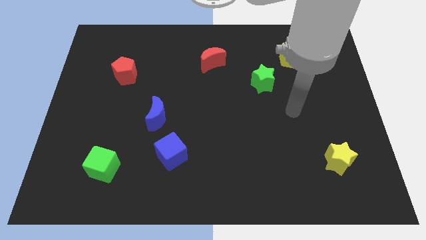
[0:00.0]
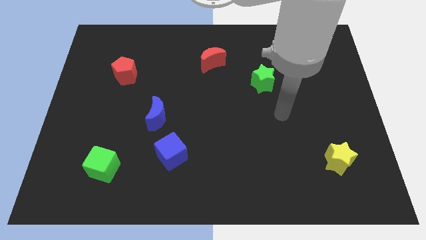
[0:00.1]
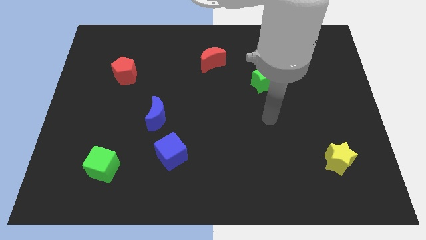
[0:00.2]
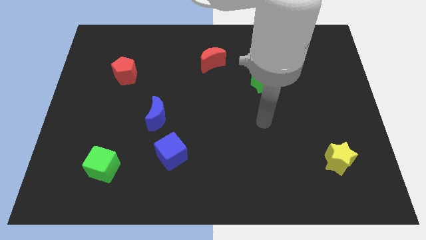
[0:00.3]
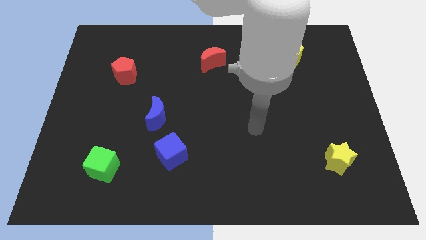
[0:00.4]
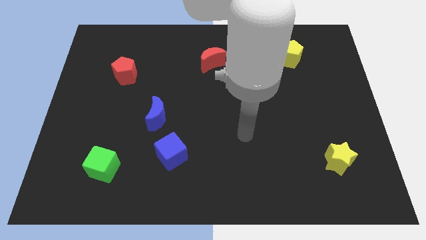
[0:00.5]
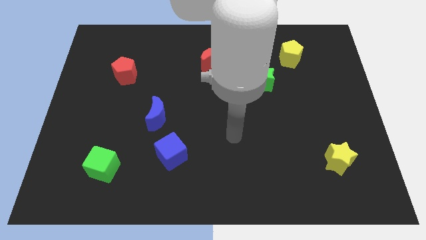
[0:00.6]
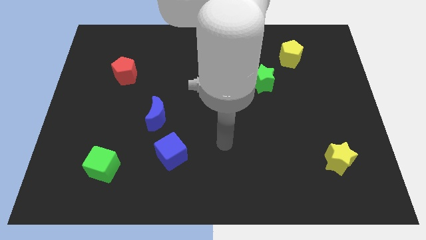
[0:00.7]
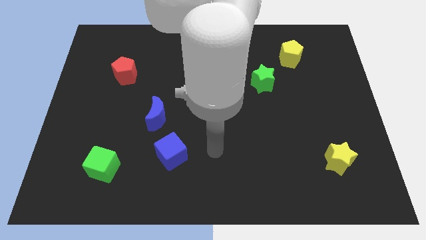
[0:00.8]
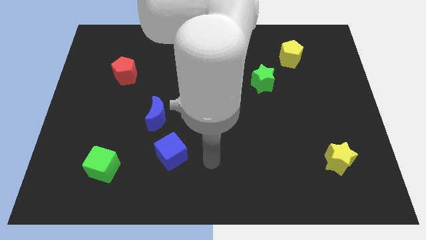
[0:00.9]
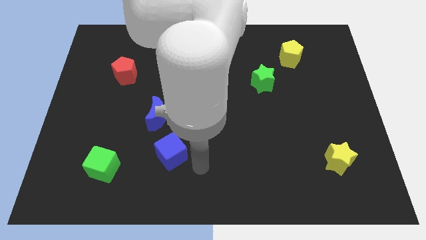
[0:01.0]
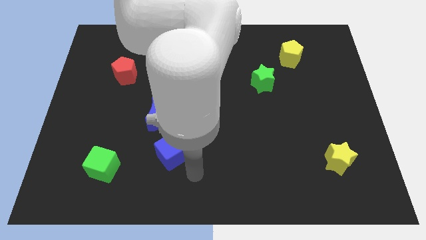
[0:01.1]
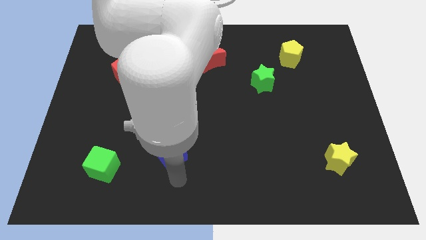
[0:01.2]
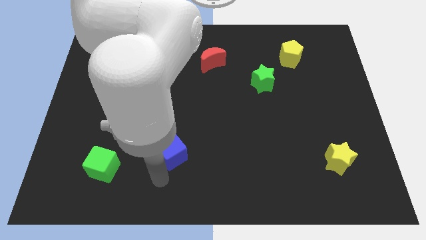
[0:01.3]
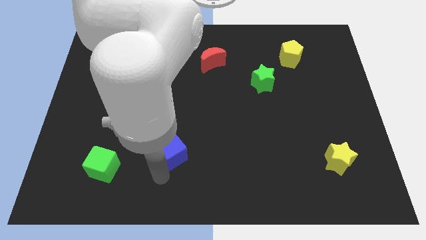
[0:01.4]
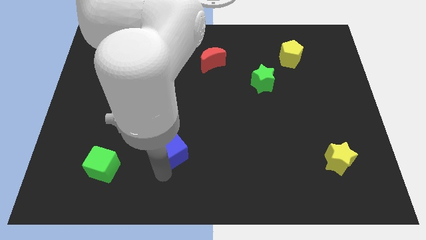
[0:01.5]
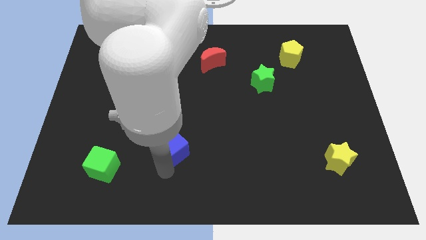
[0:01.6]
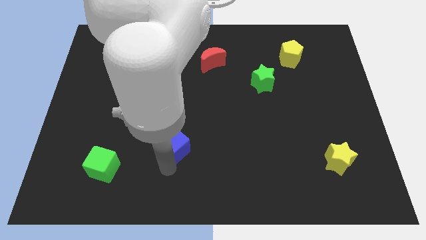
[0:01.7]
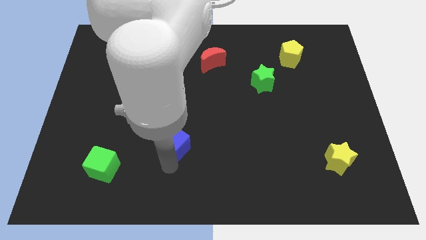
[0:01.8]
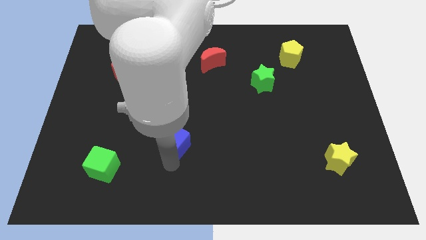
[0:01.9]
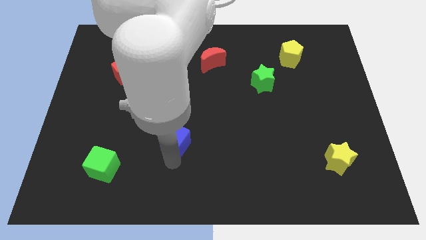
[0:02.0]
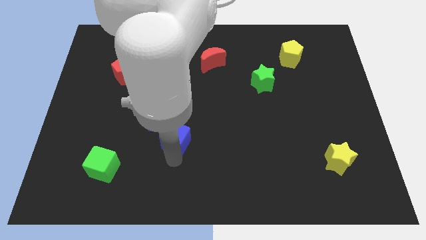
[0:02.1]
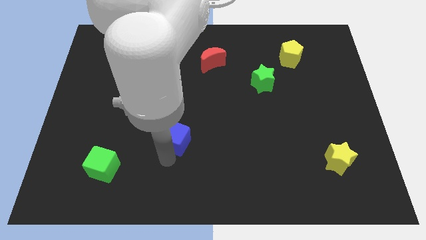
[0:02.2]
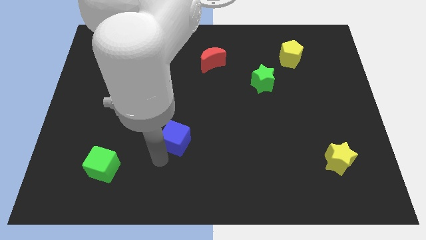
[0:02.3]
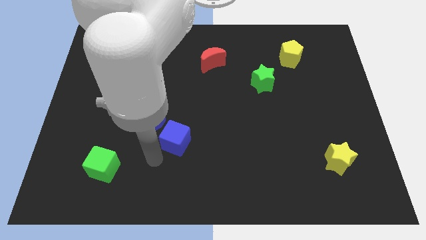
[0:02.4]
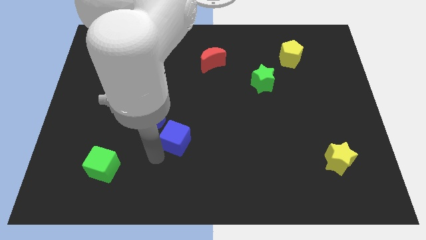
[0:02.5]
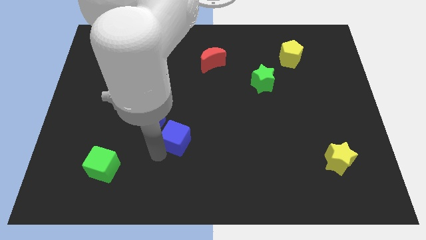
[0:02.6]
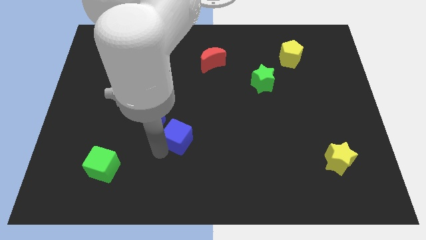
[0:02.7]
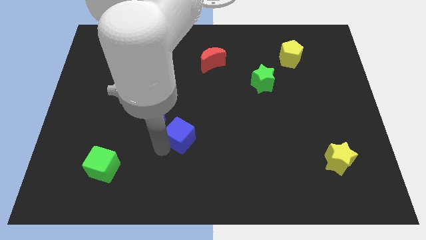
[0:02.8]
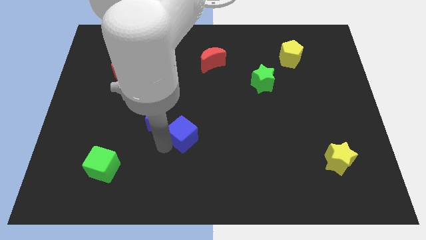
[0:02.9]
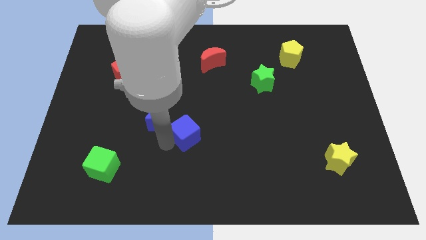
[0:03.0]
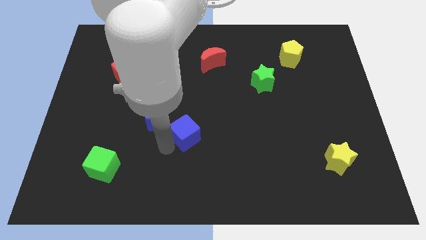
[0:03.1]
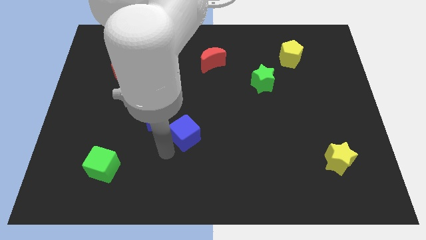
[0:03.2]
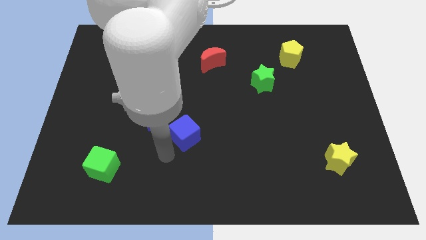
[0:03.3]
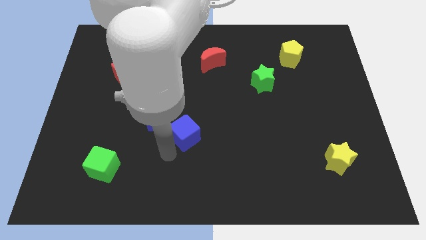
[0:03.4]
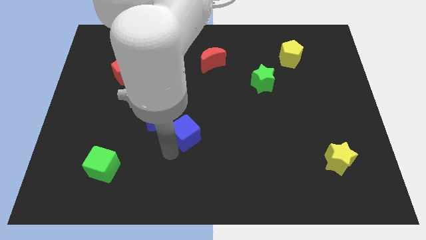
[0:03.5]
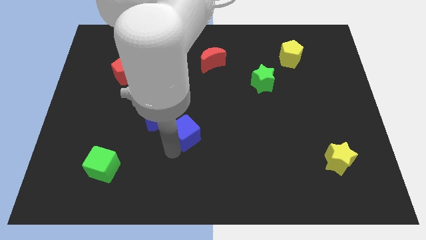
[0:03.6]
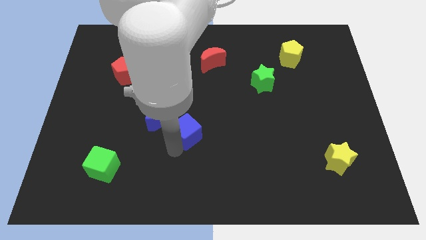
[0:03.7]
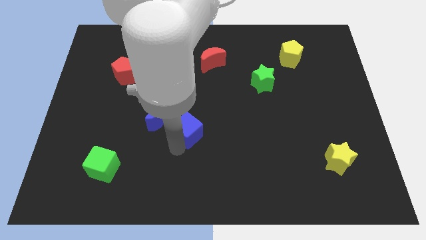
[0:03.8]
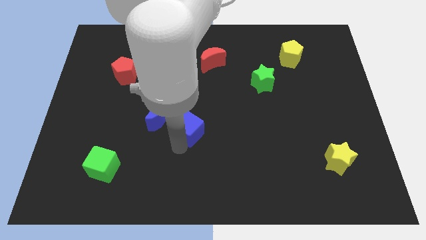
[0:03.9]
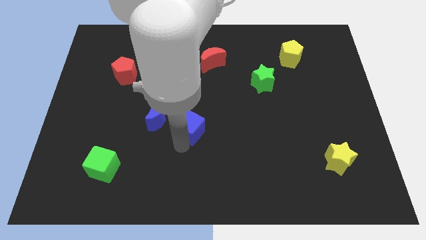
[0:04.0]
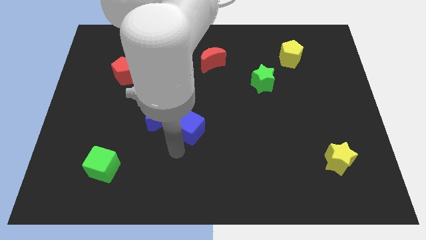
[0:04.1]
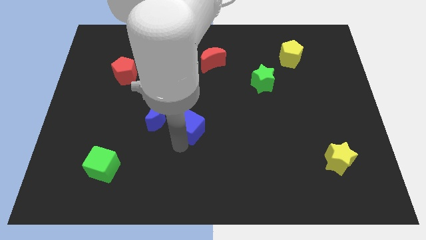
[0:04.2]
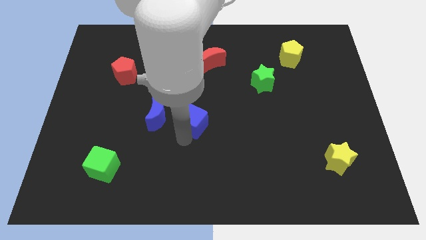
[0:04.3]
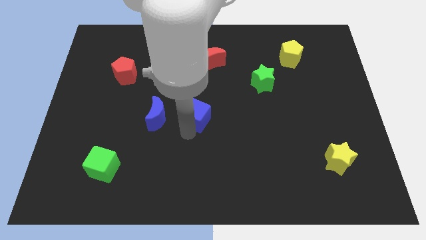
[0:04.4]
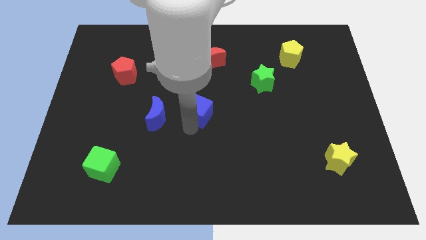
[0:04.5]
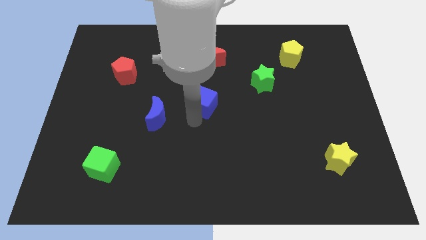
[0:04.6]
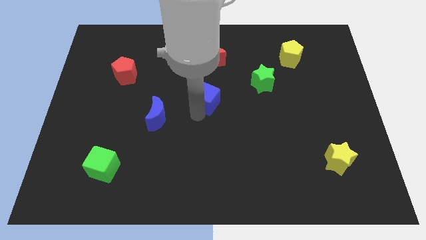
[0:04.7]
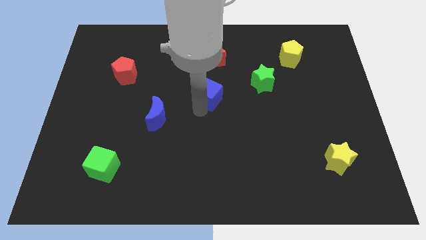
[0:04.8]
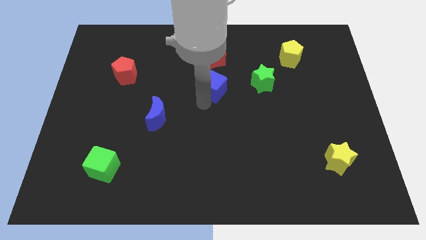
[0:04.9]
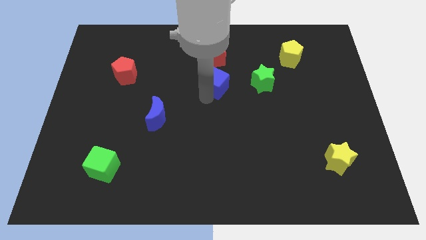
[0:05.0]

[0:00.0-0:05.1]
push the blue cube to the bottom right of the red moon

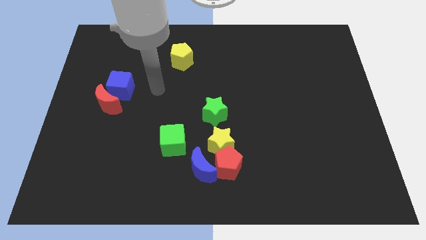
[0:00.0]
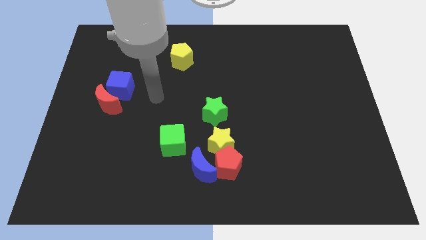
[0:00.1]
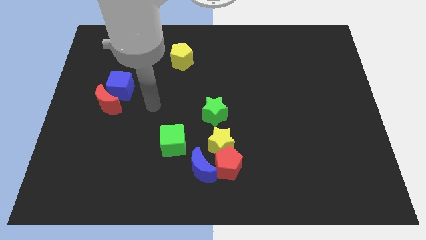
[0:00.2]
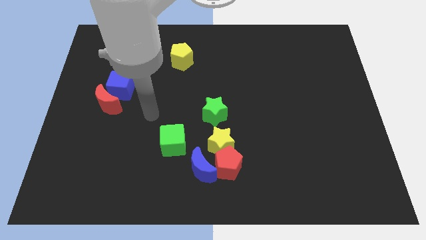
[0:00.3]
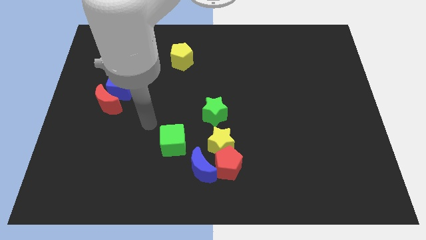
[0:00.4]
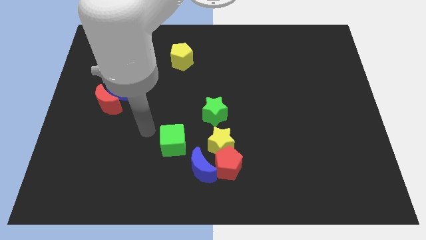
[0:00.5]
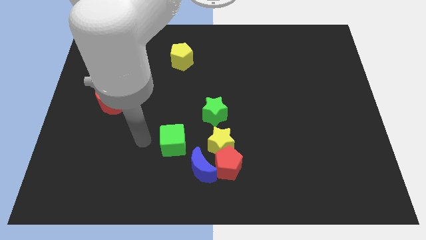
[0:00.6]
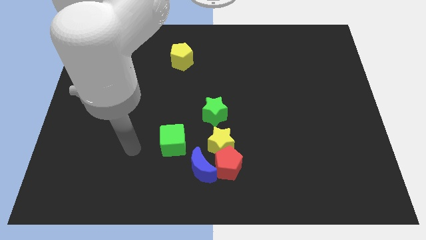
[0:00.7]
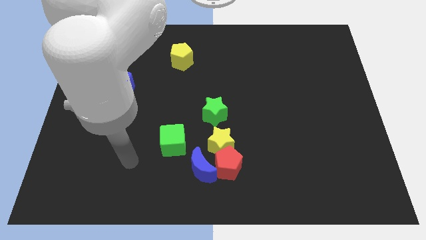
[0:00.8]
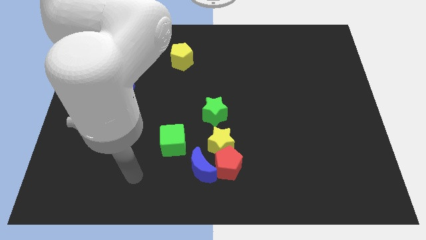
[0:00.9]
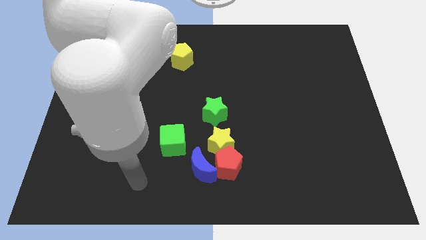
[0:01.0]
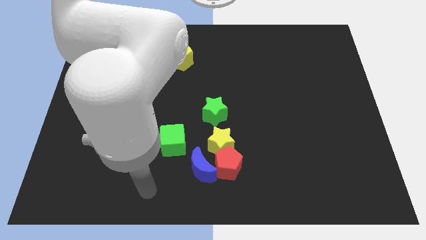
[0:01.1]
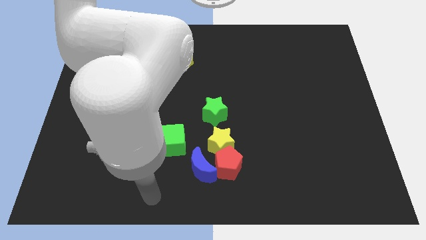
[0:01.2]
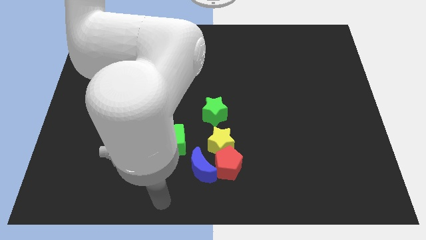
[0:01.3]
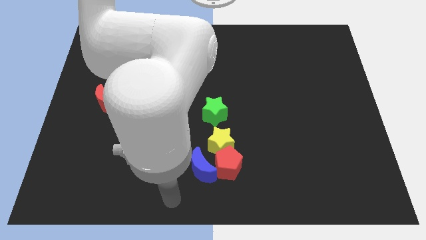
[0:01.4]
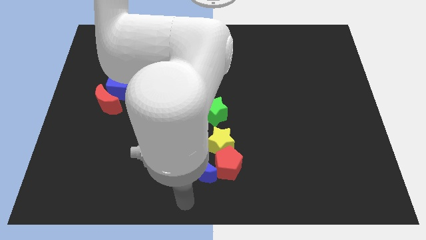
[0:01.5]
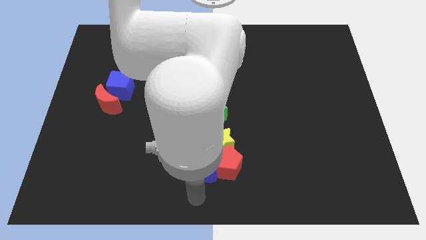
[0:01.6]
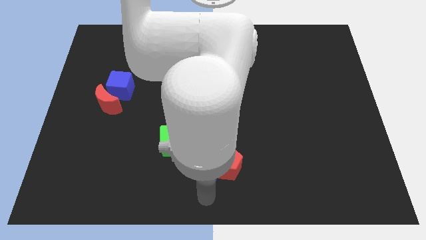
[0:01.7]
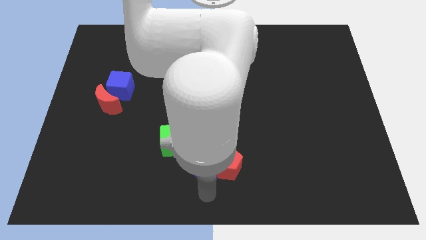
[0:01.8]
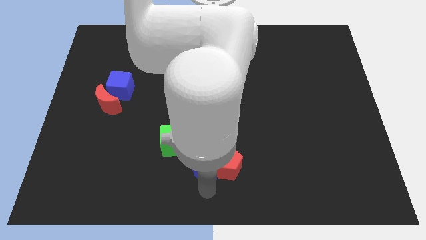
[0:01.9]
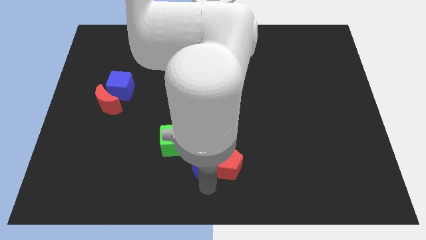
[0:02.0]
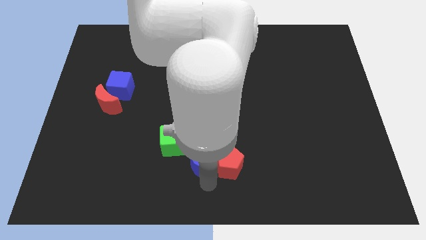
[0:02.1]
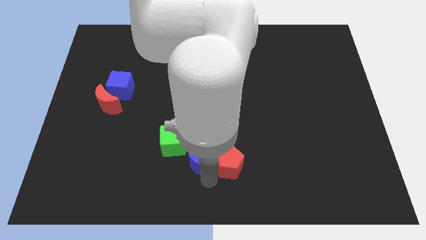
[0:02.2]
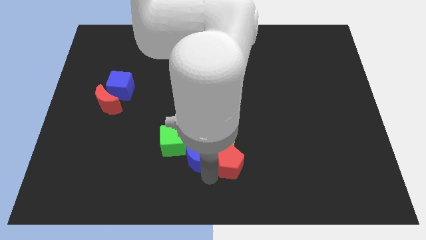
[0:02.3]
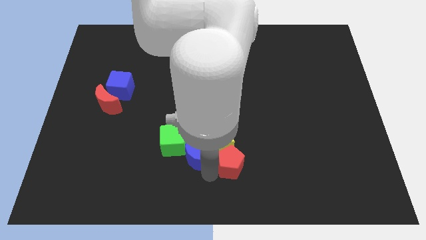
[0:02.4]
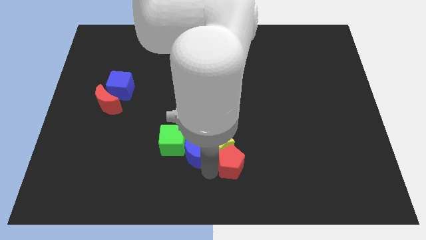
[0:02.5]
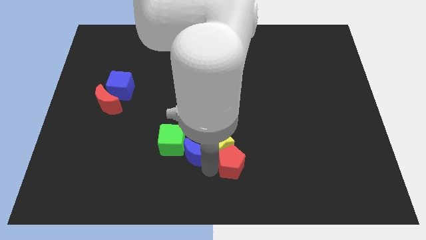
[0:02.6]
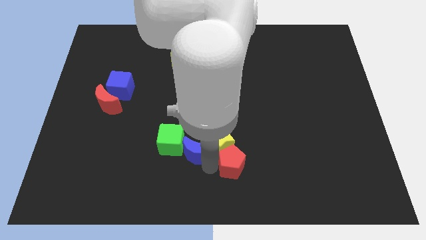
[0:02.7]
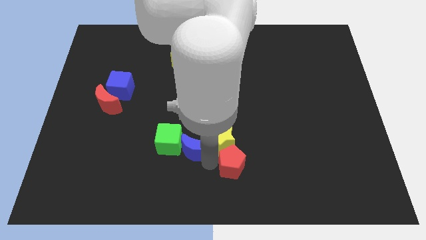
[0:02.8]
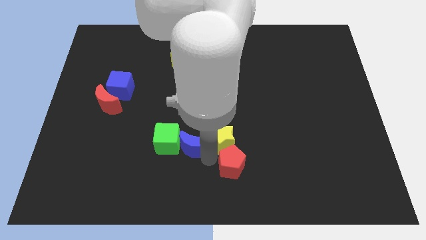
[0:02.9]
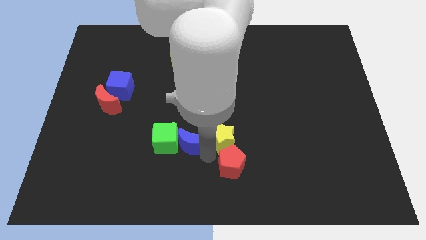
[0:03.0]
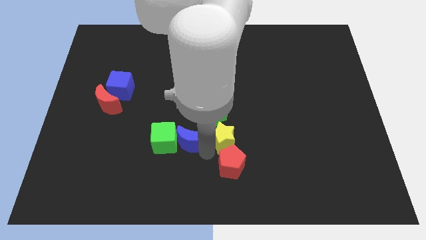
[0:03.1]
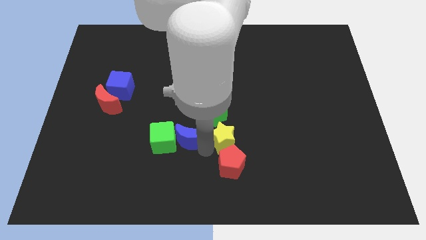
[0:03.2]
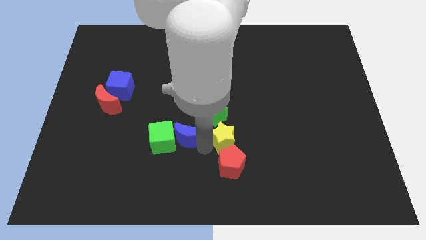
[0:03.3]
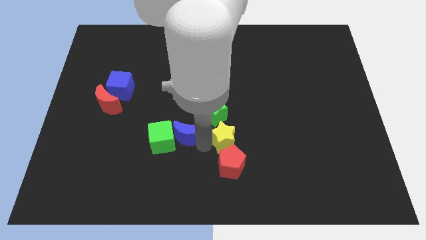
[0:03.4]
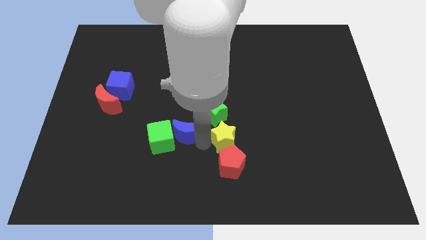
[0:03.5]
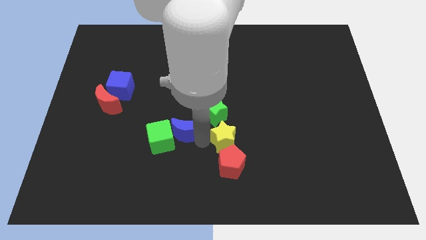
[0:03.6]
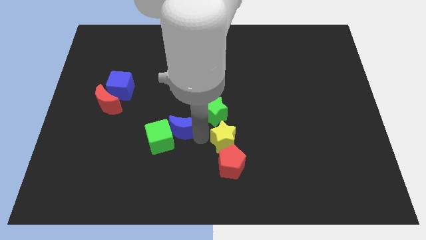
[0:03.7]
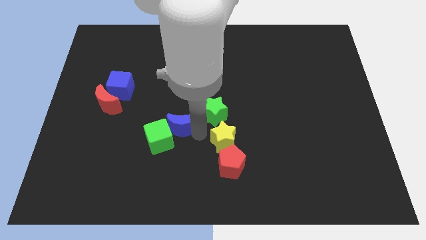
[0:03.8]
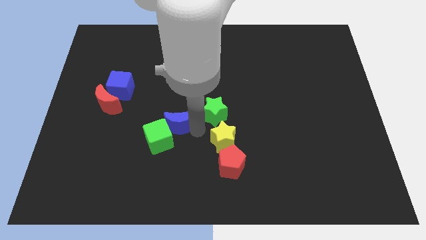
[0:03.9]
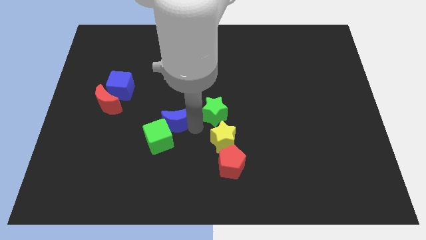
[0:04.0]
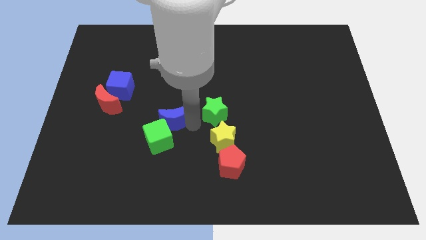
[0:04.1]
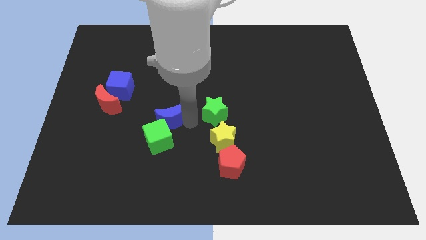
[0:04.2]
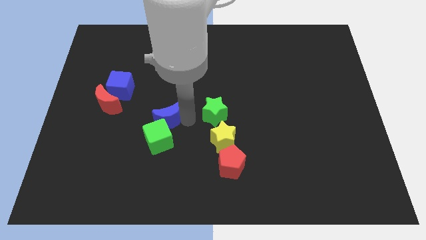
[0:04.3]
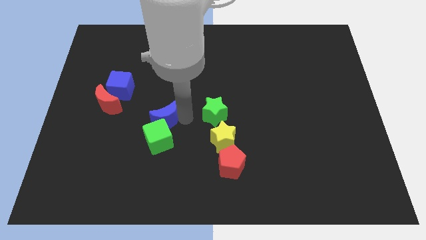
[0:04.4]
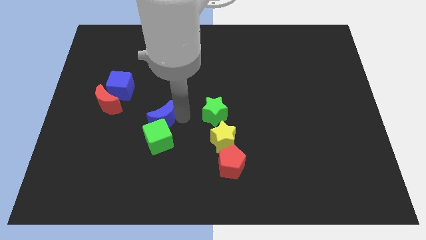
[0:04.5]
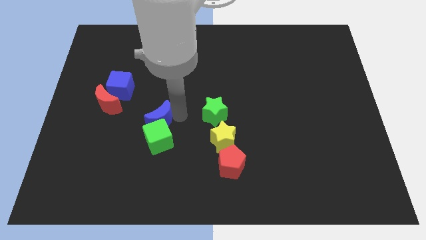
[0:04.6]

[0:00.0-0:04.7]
move the blue moon just right of the red moon
